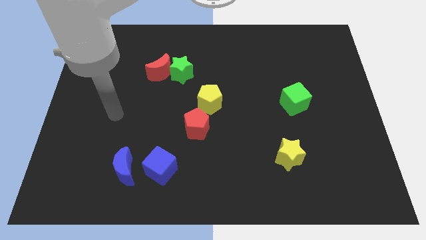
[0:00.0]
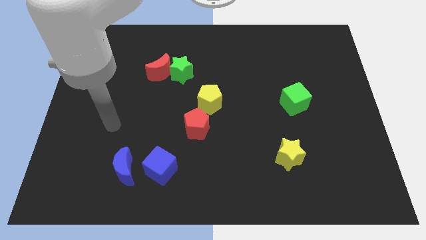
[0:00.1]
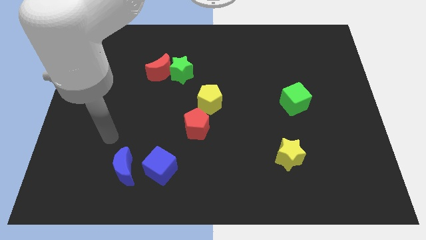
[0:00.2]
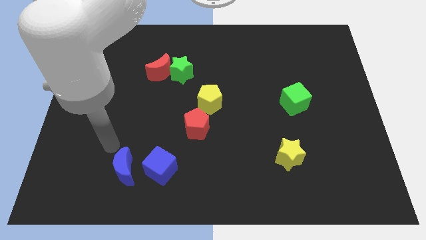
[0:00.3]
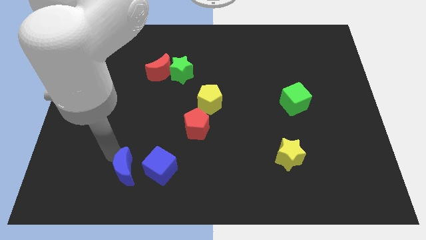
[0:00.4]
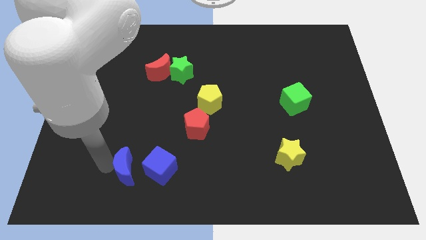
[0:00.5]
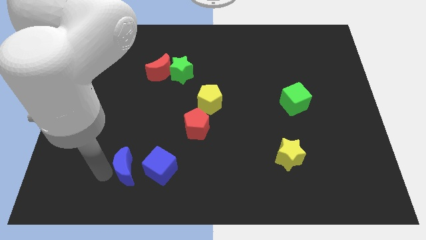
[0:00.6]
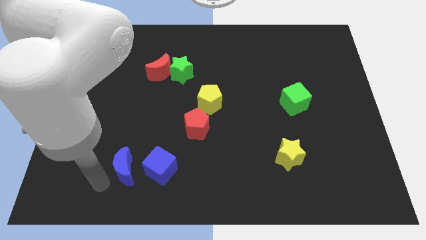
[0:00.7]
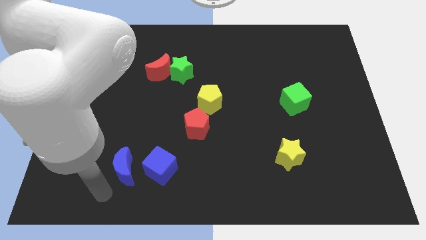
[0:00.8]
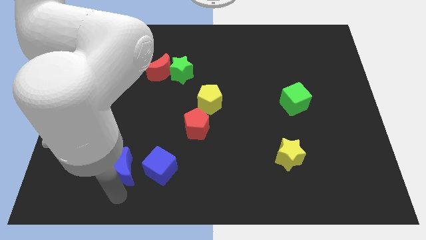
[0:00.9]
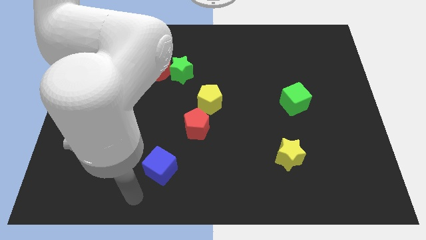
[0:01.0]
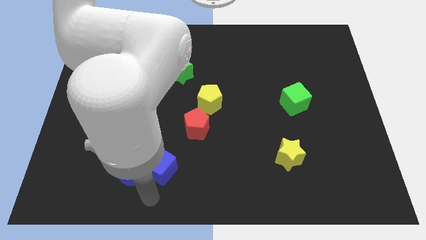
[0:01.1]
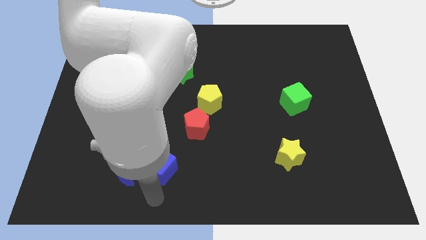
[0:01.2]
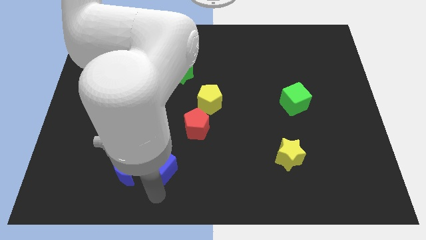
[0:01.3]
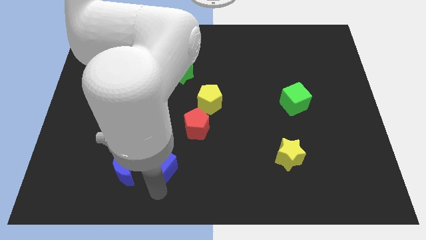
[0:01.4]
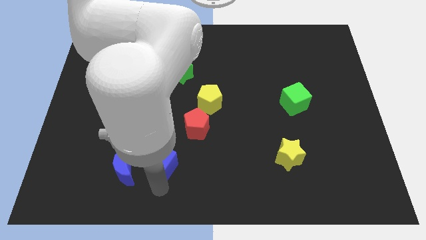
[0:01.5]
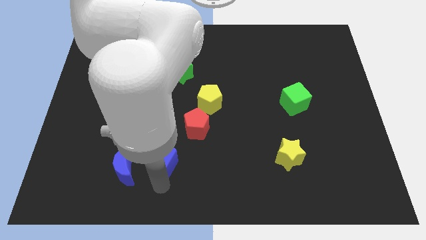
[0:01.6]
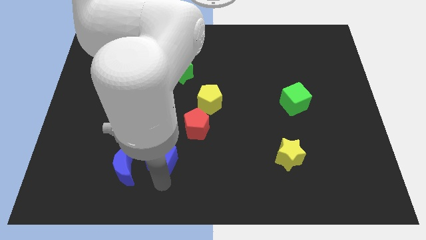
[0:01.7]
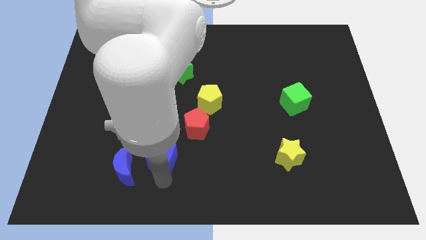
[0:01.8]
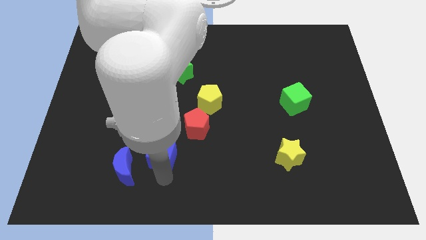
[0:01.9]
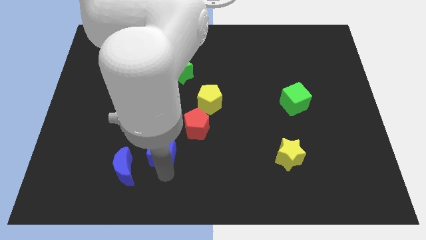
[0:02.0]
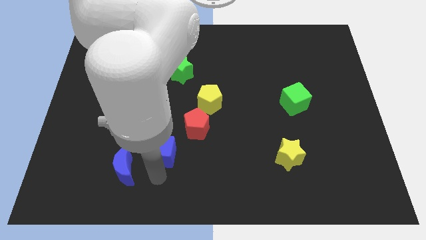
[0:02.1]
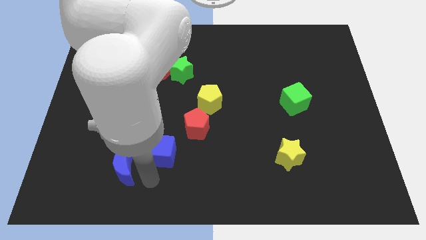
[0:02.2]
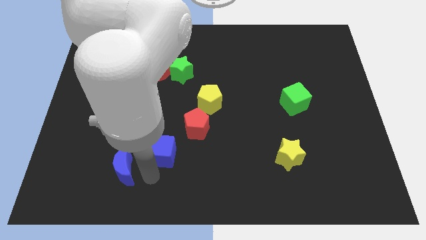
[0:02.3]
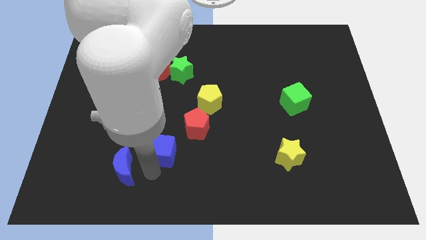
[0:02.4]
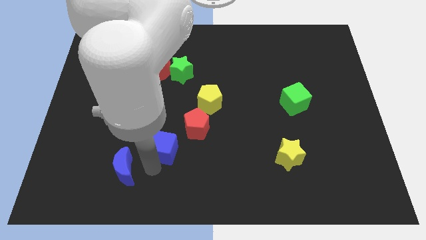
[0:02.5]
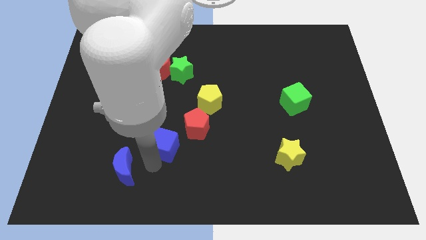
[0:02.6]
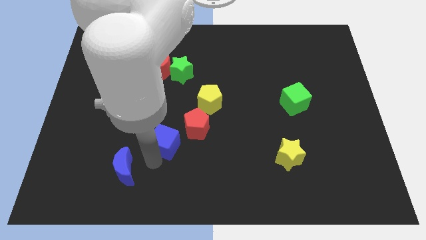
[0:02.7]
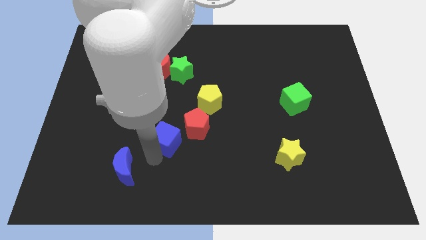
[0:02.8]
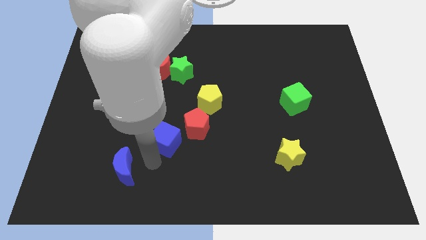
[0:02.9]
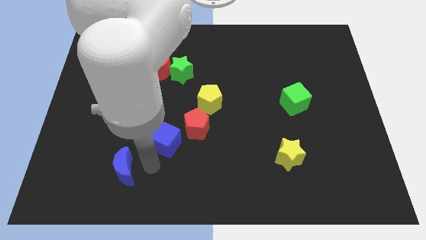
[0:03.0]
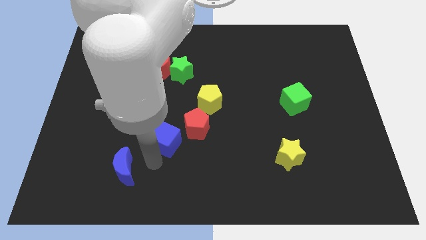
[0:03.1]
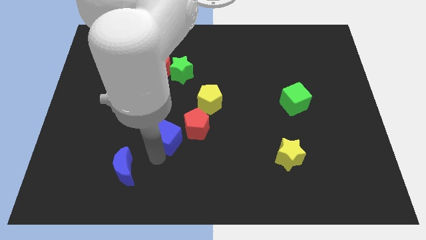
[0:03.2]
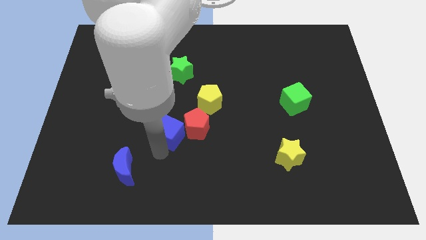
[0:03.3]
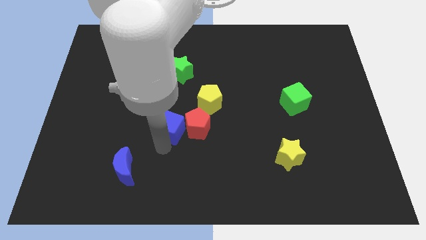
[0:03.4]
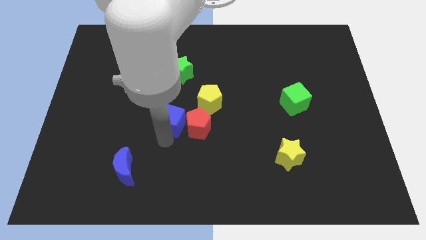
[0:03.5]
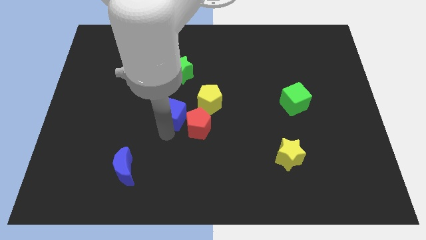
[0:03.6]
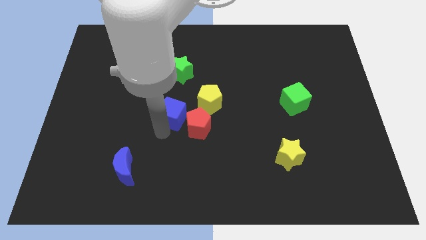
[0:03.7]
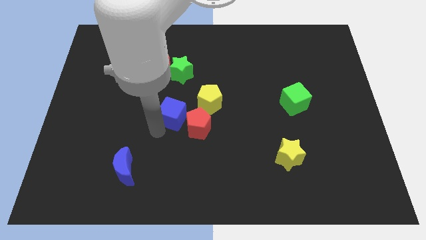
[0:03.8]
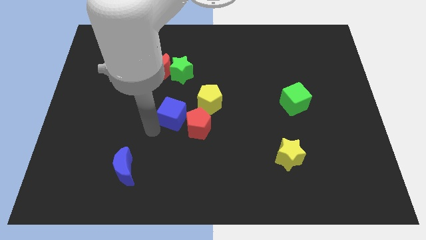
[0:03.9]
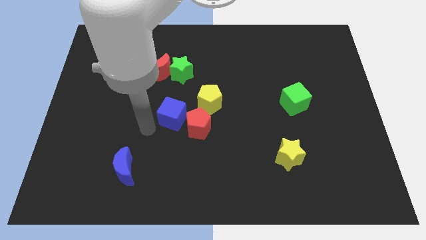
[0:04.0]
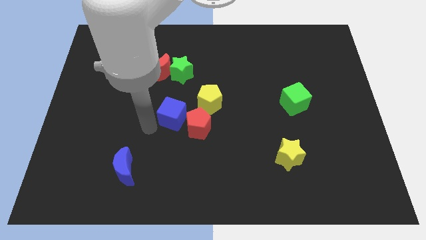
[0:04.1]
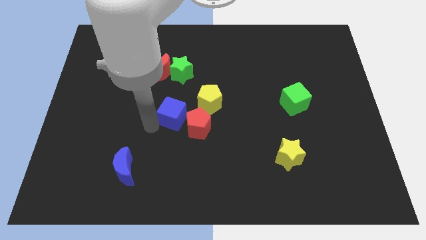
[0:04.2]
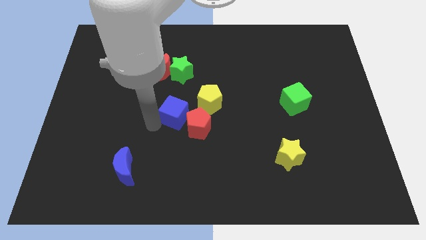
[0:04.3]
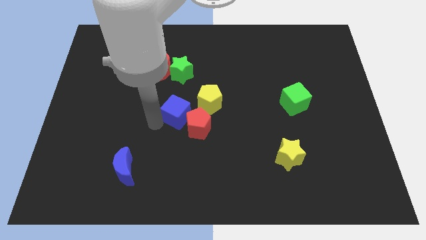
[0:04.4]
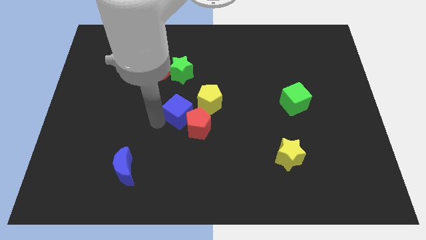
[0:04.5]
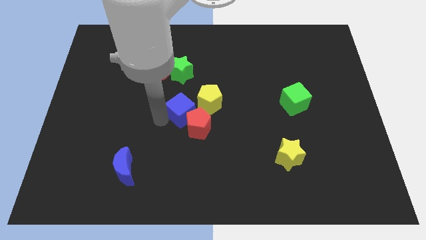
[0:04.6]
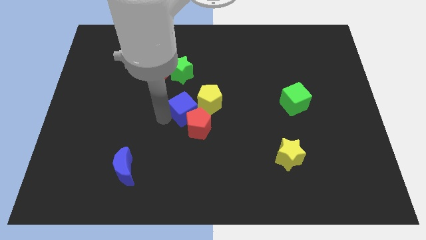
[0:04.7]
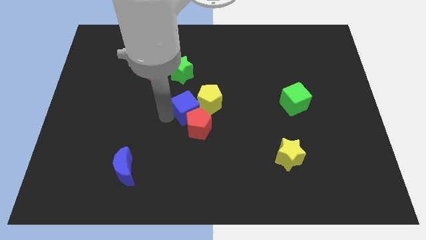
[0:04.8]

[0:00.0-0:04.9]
slide the blue cube next to the yellow pentagon

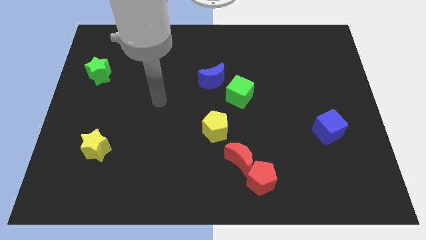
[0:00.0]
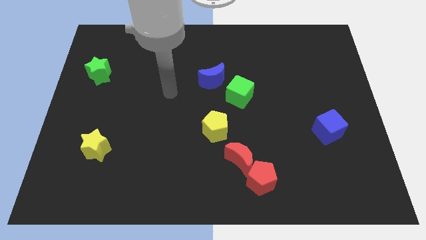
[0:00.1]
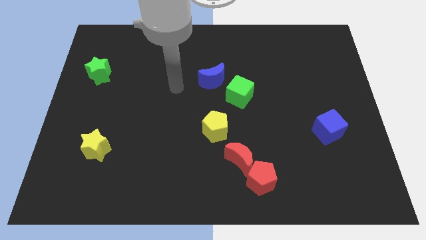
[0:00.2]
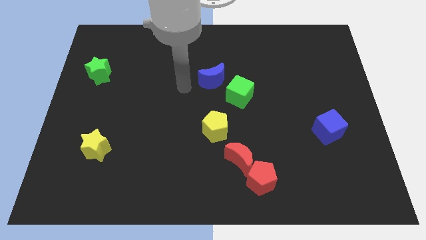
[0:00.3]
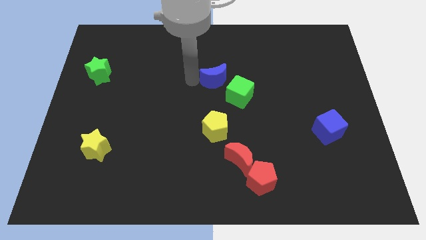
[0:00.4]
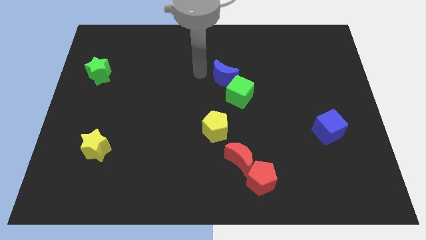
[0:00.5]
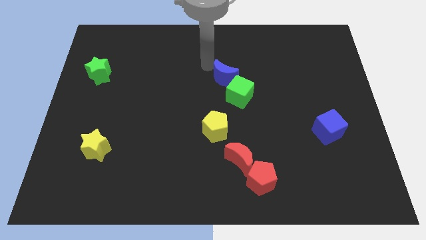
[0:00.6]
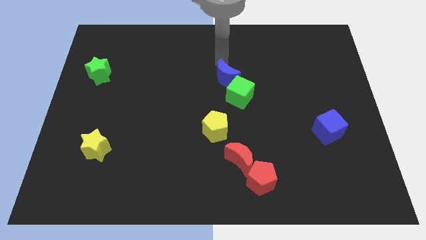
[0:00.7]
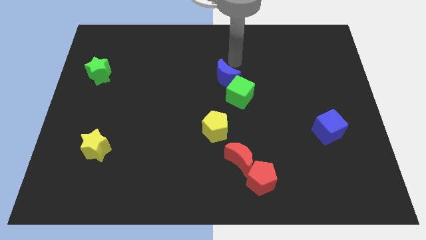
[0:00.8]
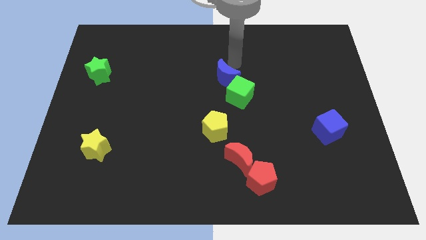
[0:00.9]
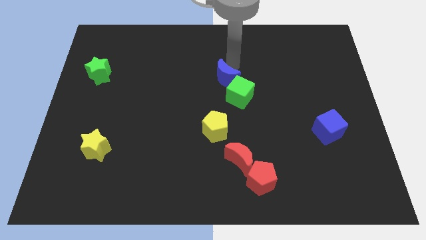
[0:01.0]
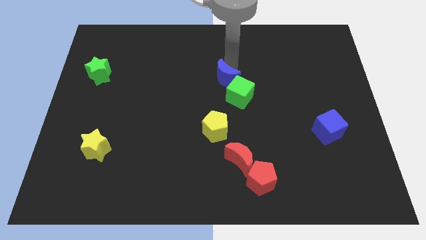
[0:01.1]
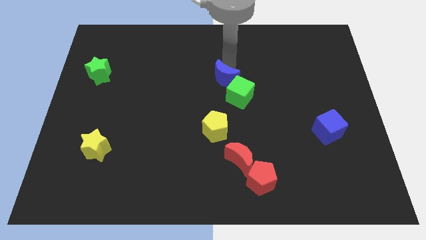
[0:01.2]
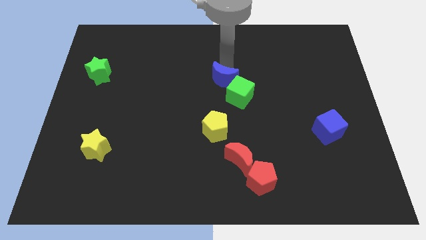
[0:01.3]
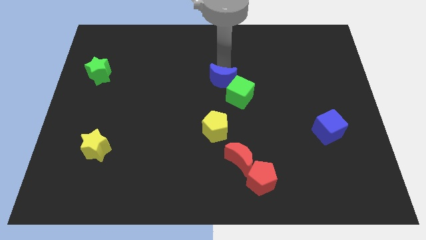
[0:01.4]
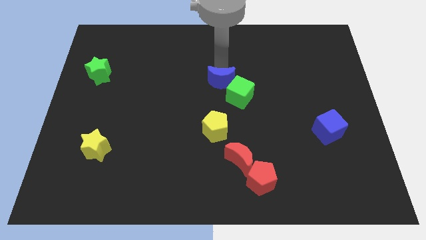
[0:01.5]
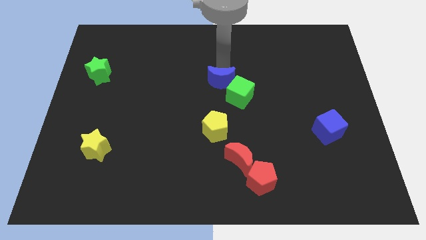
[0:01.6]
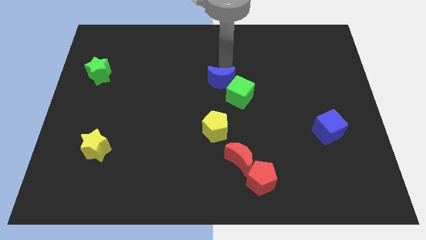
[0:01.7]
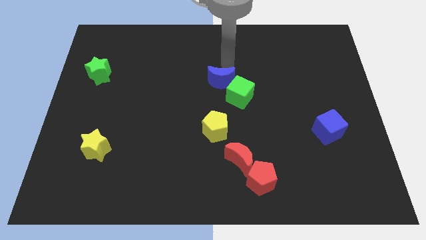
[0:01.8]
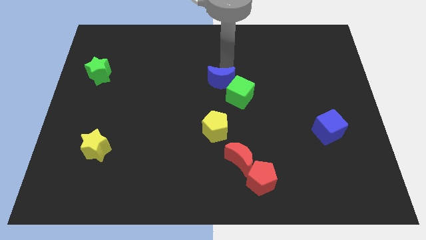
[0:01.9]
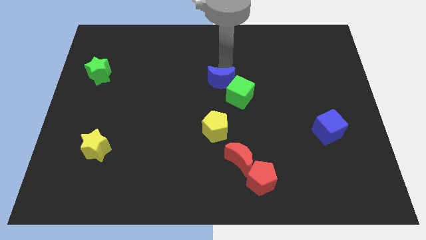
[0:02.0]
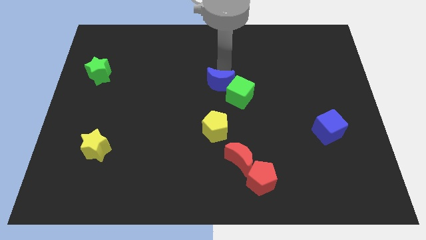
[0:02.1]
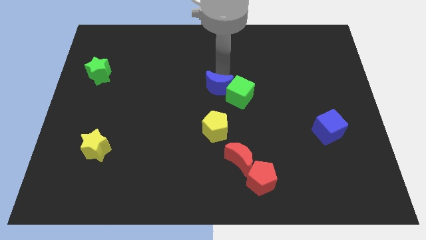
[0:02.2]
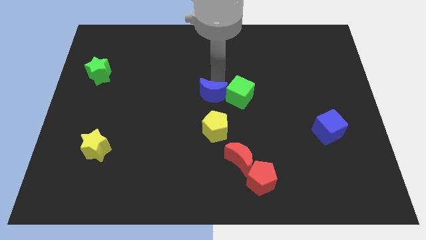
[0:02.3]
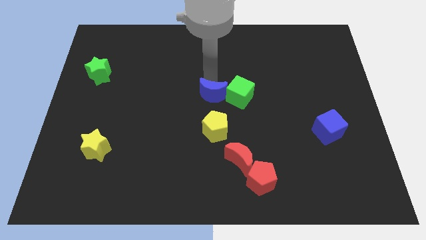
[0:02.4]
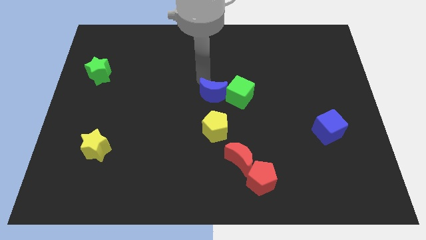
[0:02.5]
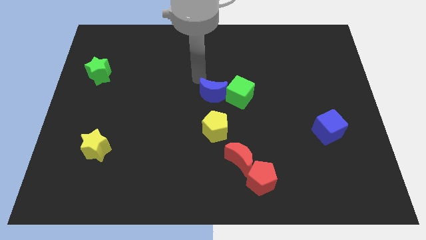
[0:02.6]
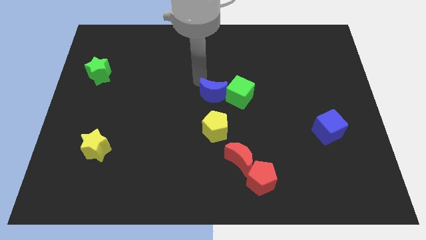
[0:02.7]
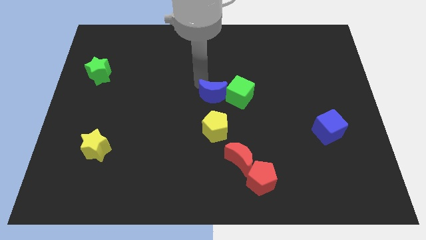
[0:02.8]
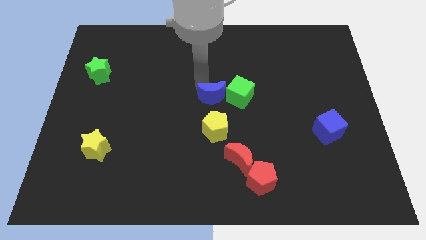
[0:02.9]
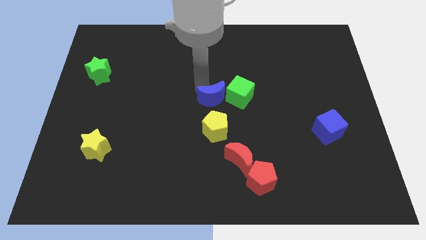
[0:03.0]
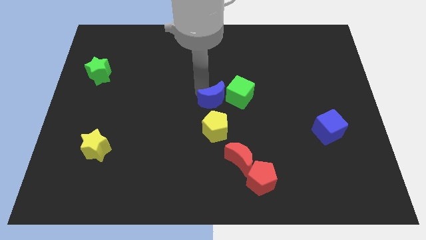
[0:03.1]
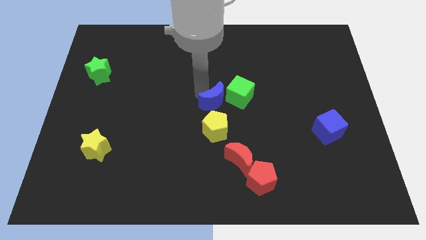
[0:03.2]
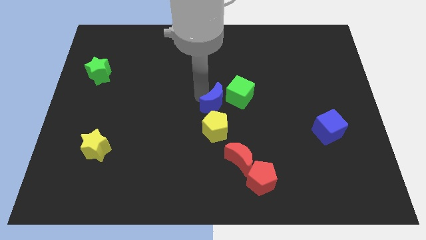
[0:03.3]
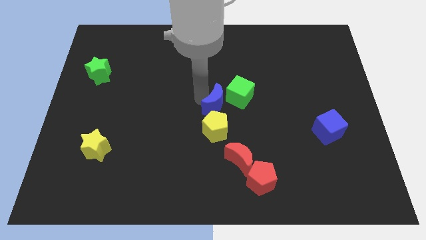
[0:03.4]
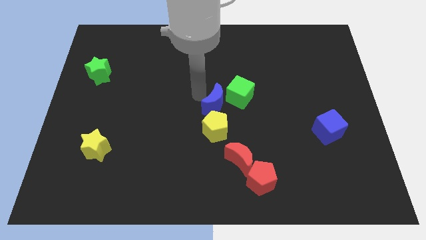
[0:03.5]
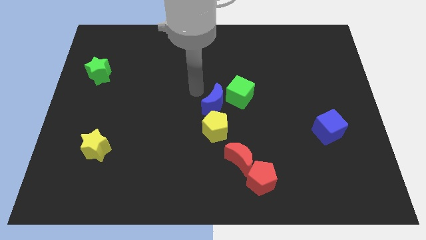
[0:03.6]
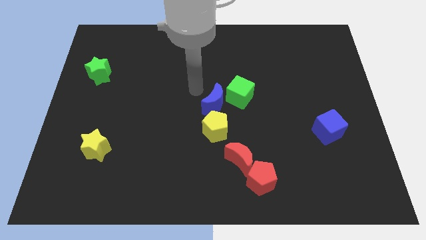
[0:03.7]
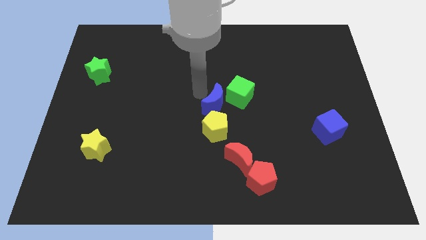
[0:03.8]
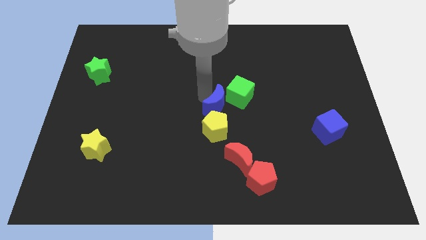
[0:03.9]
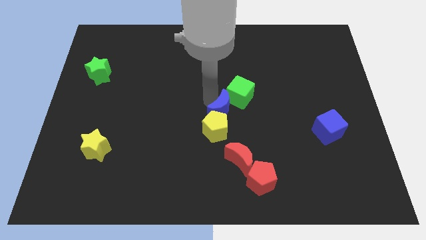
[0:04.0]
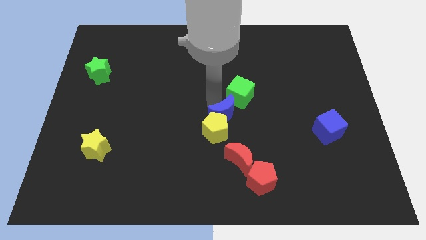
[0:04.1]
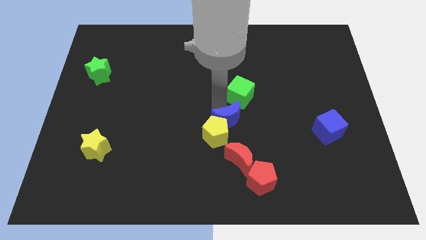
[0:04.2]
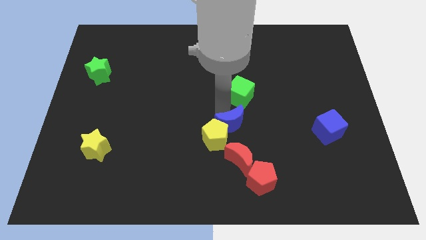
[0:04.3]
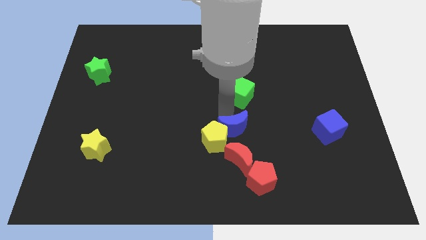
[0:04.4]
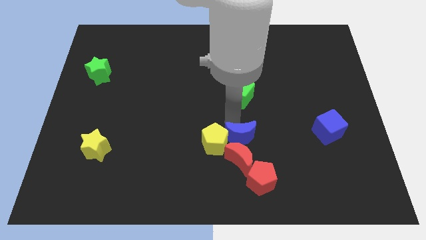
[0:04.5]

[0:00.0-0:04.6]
put the blue moon close to the red moon
